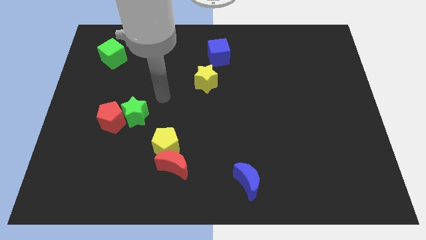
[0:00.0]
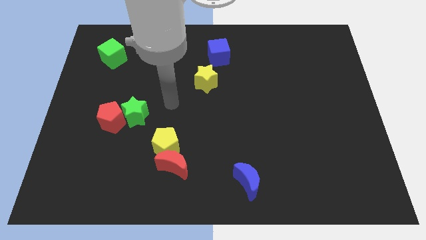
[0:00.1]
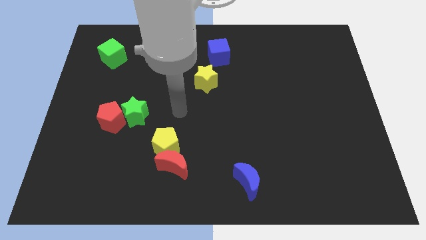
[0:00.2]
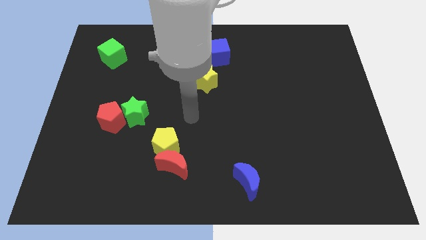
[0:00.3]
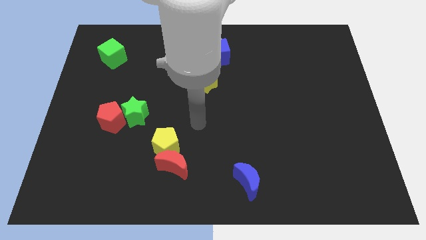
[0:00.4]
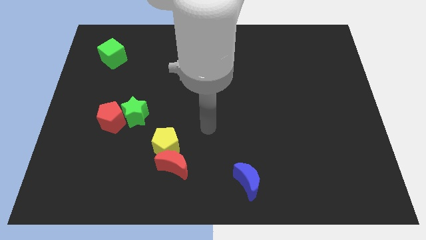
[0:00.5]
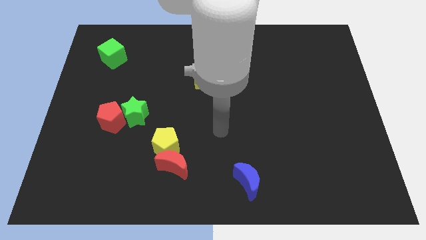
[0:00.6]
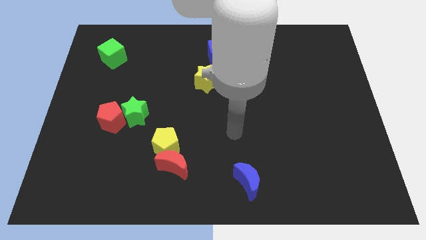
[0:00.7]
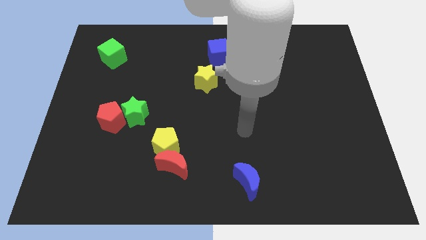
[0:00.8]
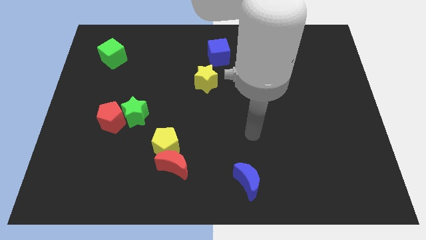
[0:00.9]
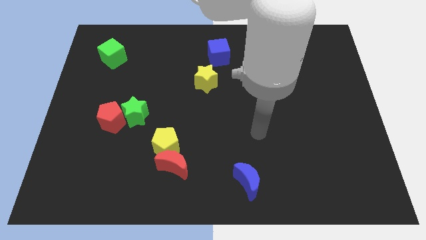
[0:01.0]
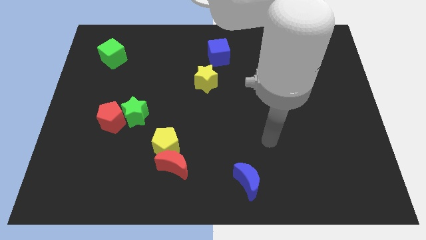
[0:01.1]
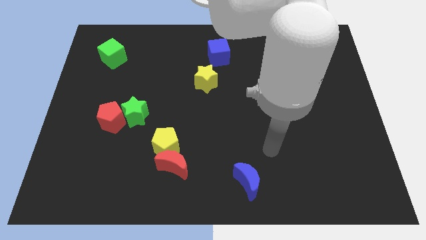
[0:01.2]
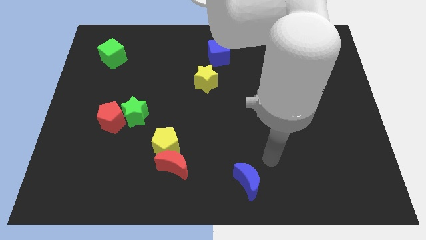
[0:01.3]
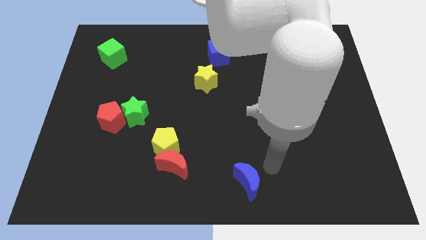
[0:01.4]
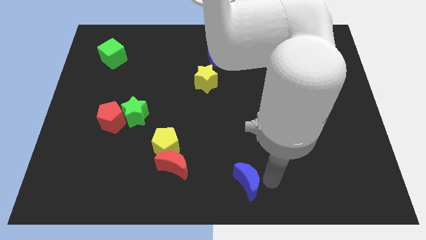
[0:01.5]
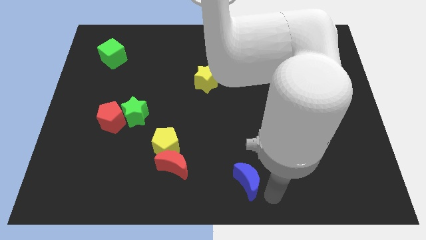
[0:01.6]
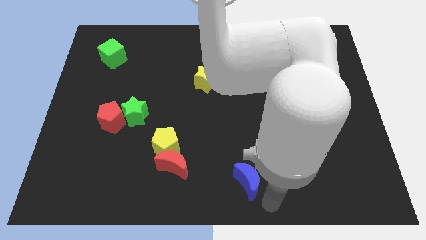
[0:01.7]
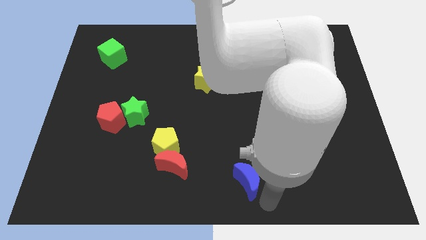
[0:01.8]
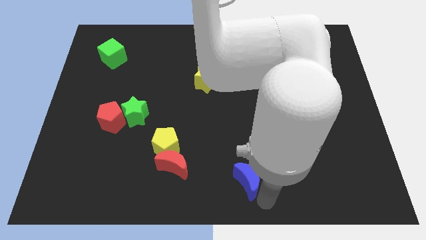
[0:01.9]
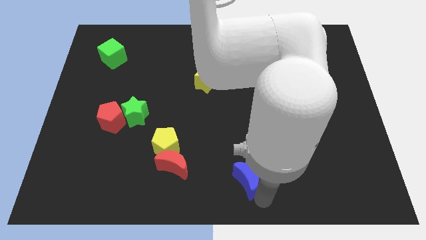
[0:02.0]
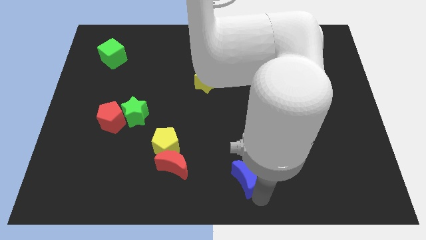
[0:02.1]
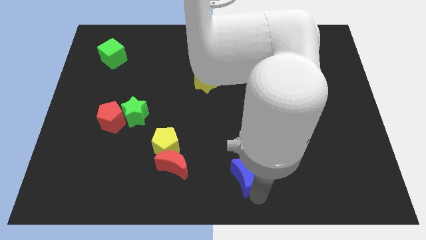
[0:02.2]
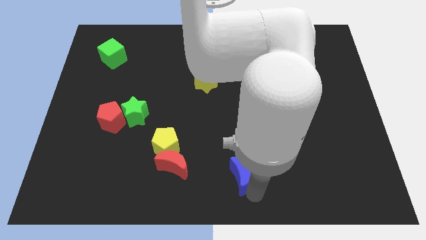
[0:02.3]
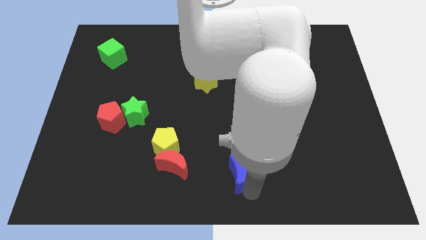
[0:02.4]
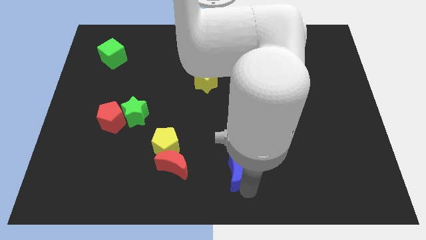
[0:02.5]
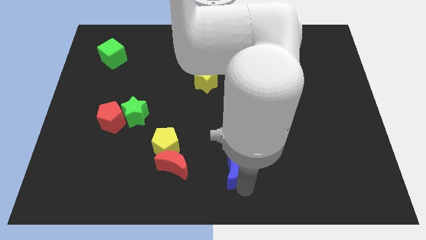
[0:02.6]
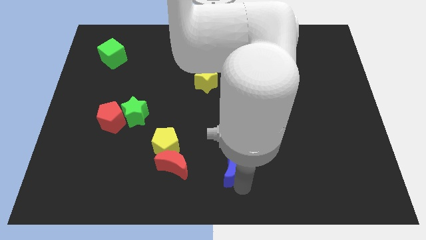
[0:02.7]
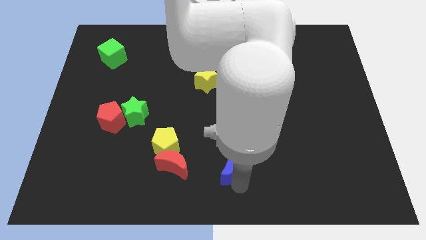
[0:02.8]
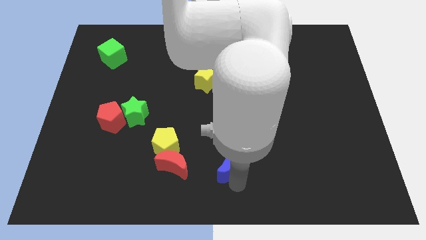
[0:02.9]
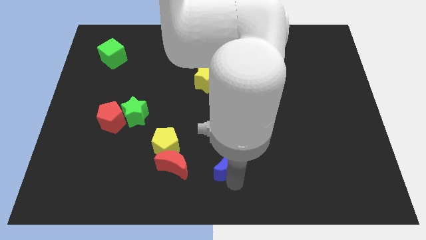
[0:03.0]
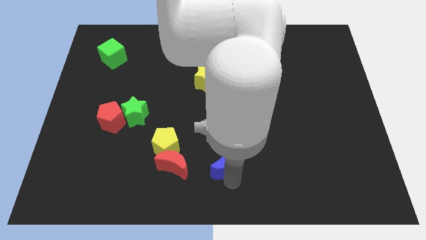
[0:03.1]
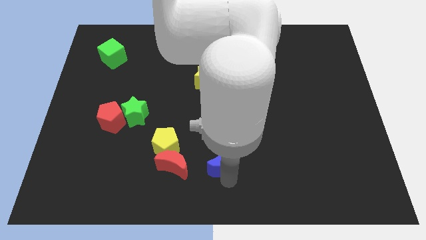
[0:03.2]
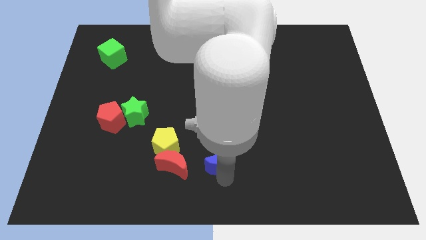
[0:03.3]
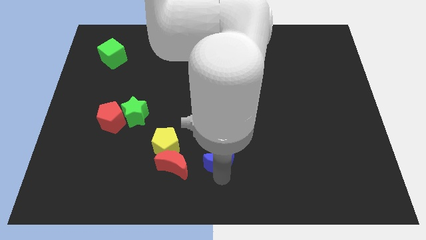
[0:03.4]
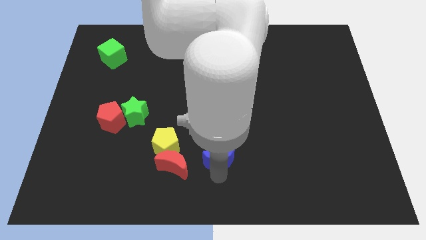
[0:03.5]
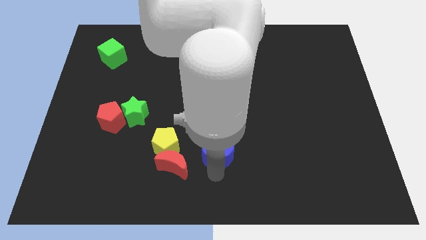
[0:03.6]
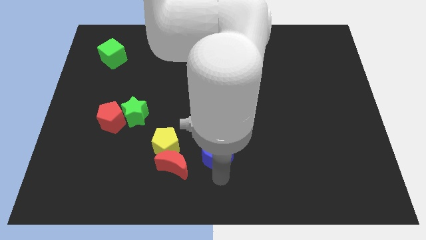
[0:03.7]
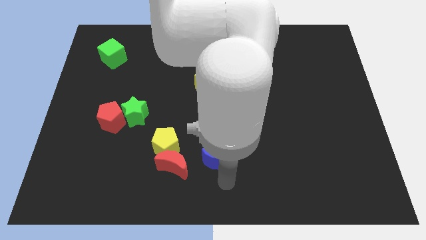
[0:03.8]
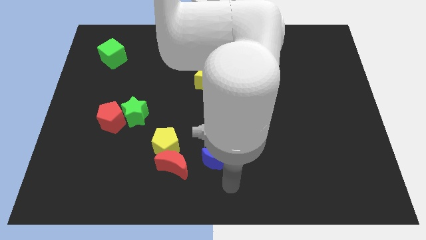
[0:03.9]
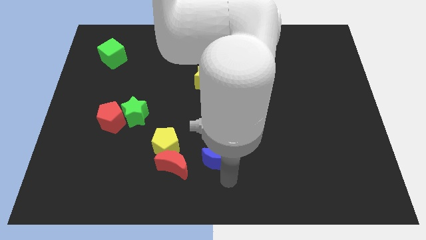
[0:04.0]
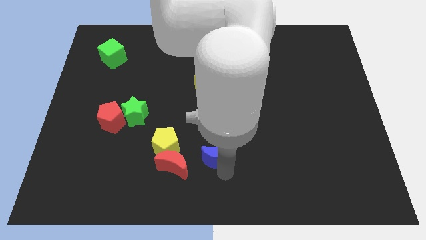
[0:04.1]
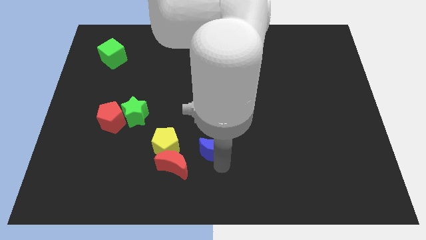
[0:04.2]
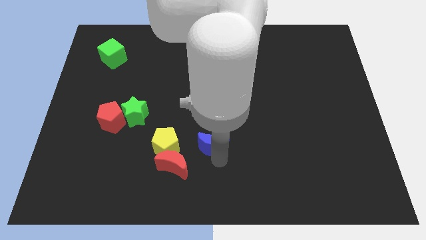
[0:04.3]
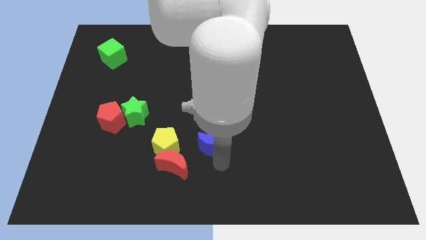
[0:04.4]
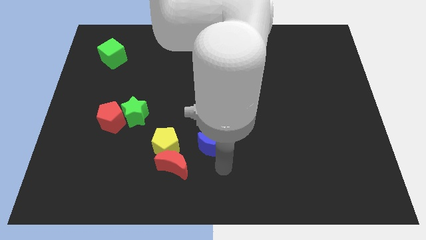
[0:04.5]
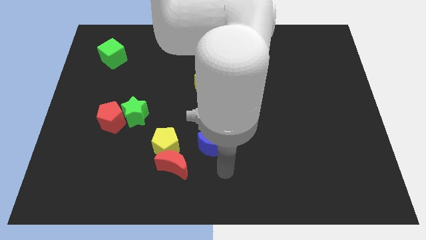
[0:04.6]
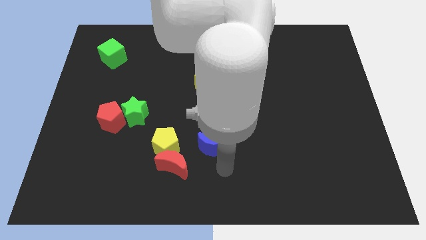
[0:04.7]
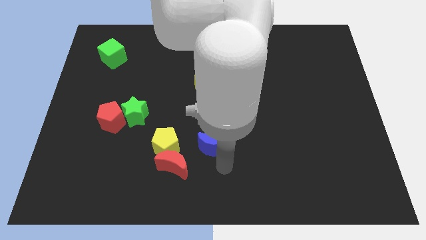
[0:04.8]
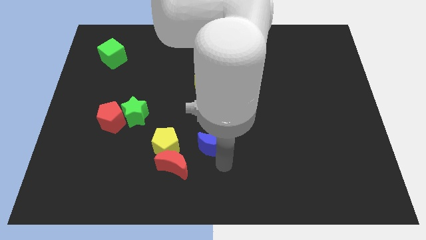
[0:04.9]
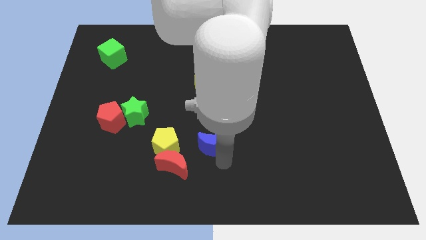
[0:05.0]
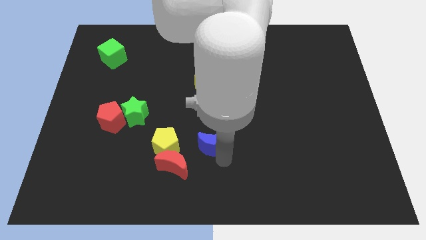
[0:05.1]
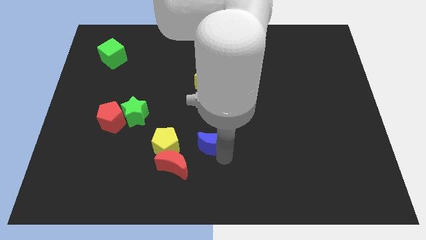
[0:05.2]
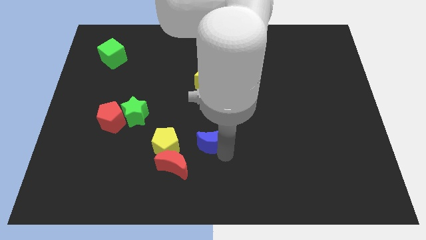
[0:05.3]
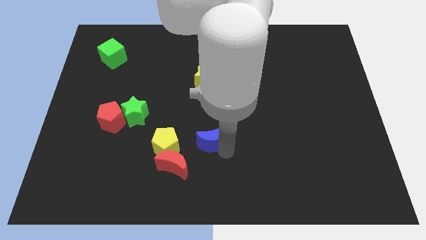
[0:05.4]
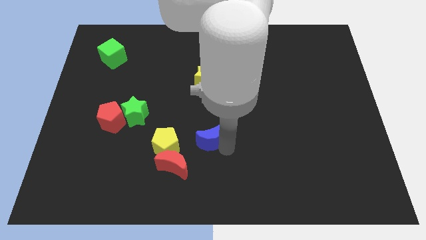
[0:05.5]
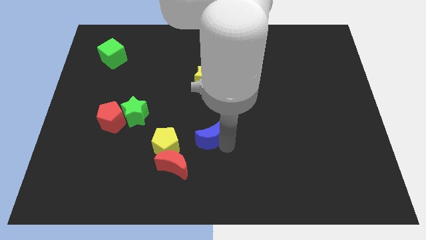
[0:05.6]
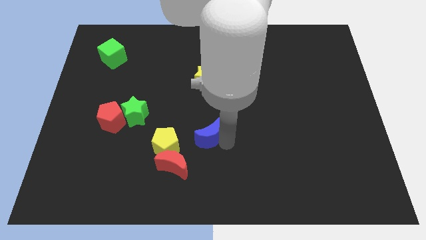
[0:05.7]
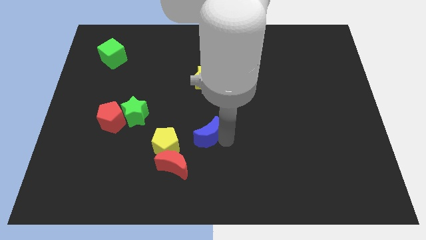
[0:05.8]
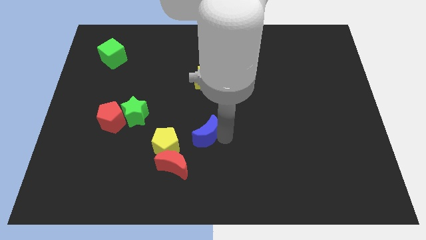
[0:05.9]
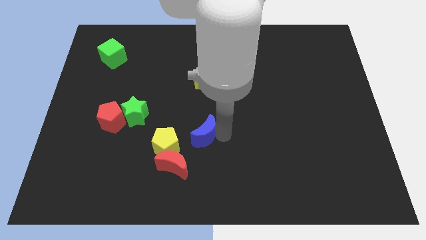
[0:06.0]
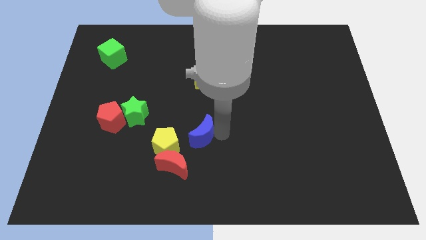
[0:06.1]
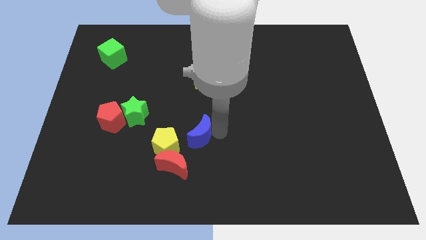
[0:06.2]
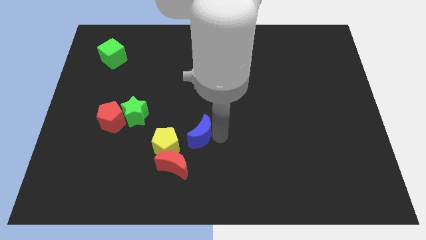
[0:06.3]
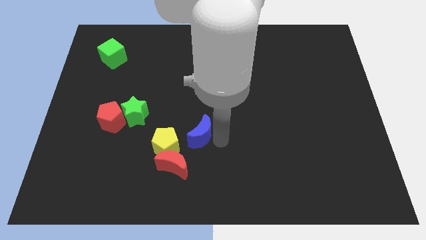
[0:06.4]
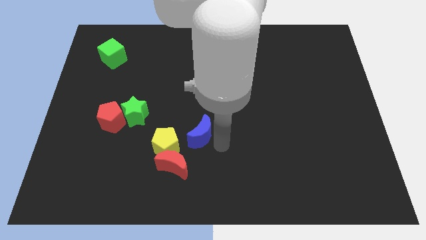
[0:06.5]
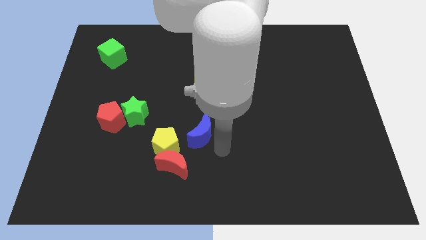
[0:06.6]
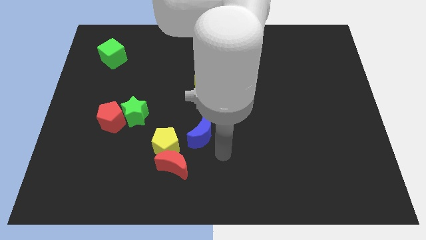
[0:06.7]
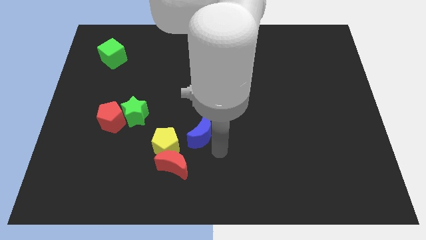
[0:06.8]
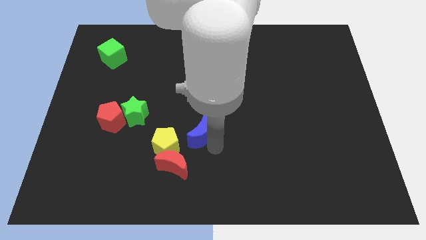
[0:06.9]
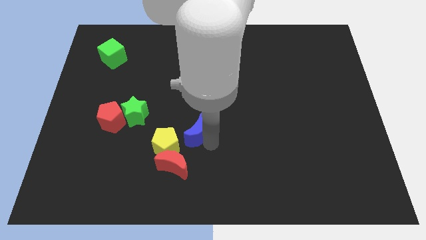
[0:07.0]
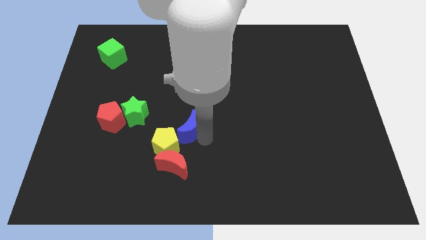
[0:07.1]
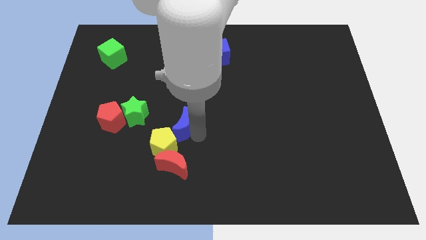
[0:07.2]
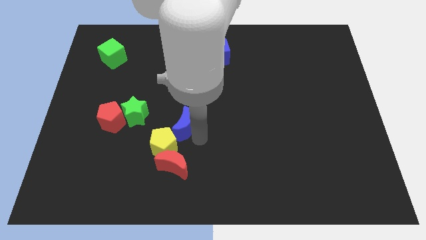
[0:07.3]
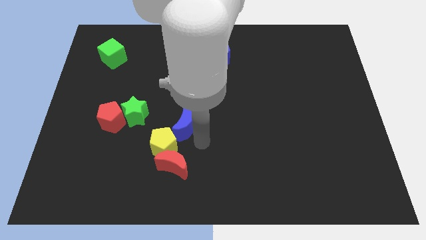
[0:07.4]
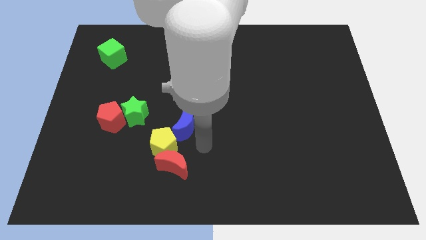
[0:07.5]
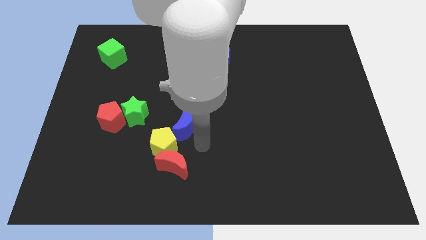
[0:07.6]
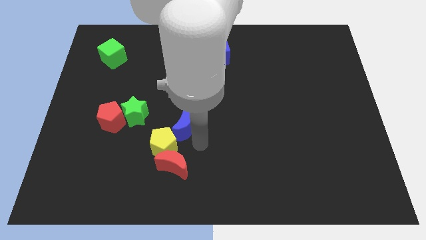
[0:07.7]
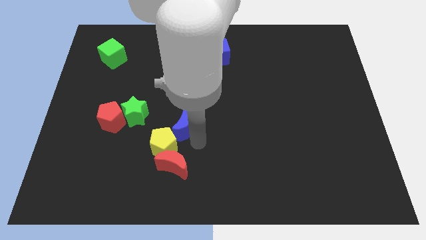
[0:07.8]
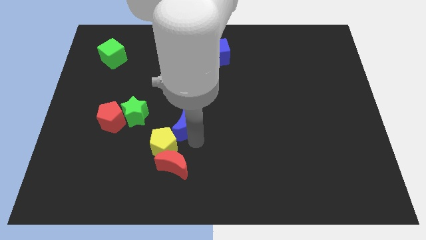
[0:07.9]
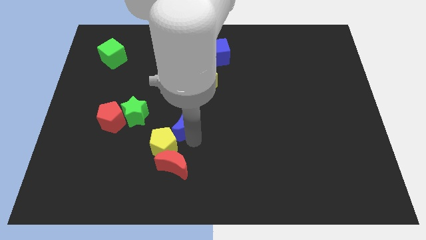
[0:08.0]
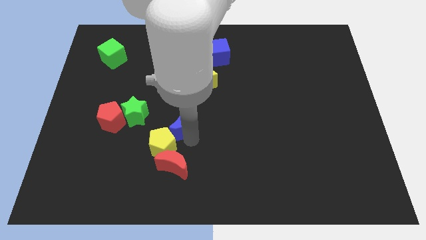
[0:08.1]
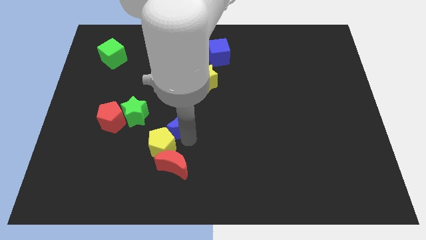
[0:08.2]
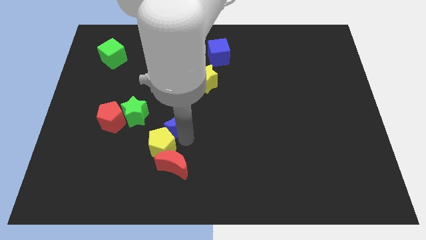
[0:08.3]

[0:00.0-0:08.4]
push the blue moon upwards and left
